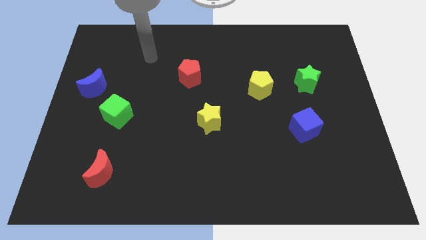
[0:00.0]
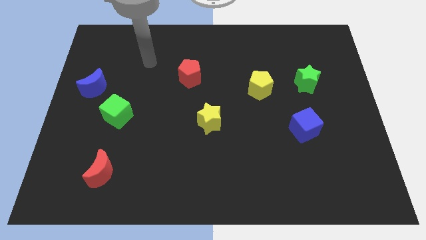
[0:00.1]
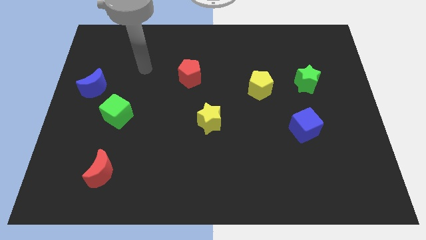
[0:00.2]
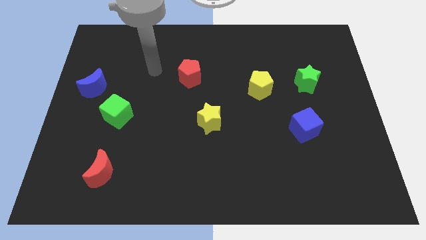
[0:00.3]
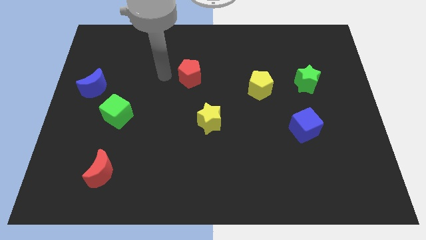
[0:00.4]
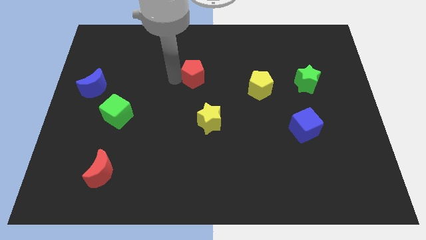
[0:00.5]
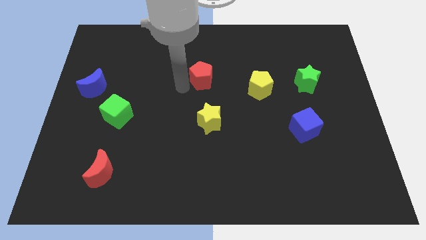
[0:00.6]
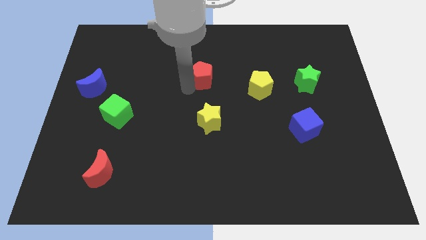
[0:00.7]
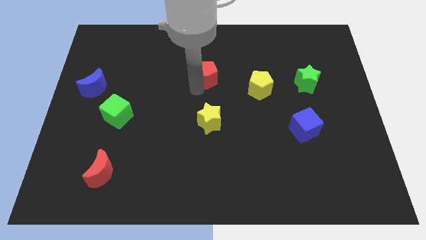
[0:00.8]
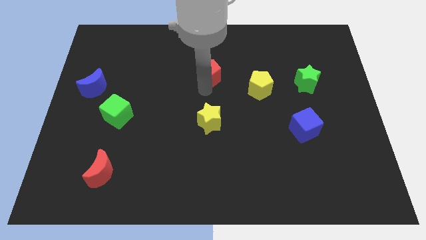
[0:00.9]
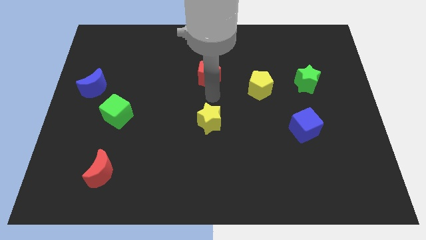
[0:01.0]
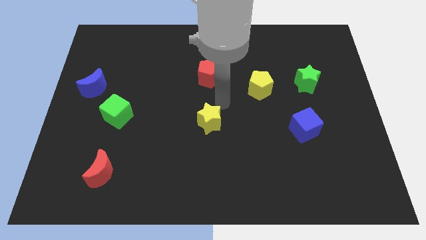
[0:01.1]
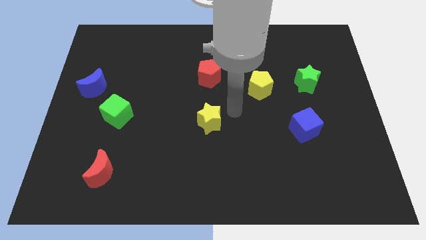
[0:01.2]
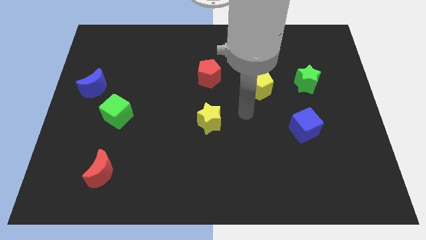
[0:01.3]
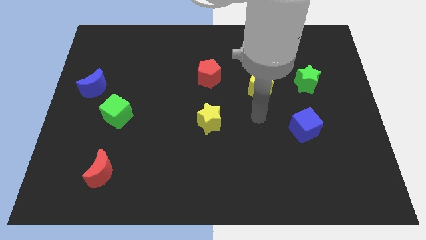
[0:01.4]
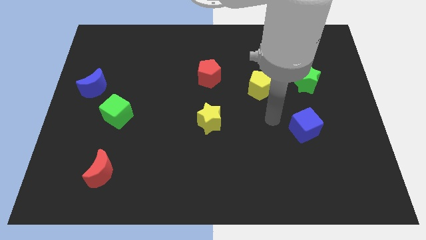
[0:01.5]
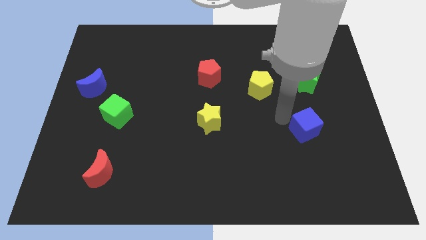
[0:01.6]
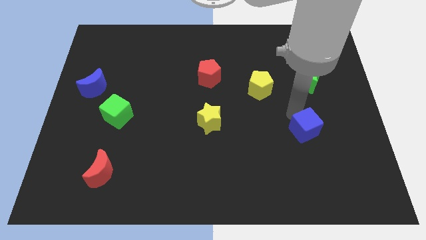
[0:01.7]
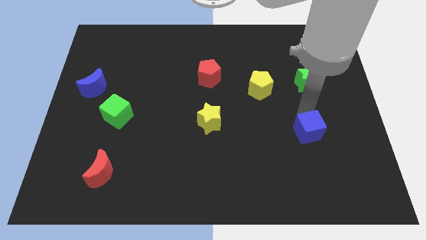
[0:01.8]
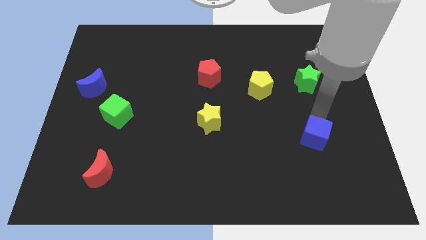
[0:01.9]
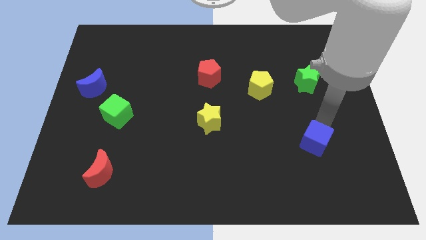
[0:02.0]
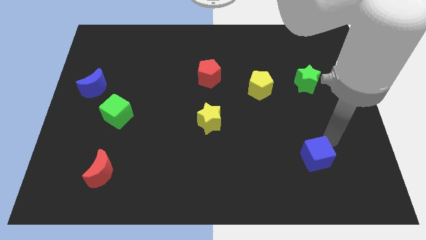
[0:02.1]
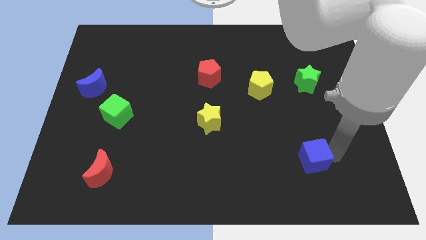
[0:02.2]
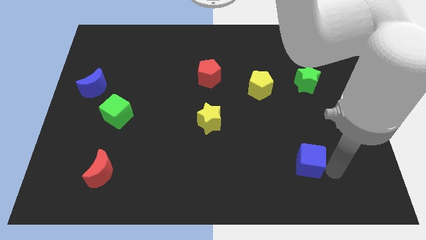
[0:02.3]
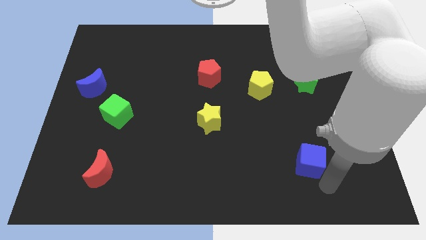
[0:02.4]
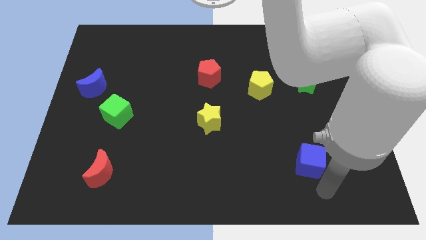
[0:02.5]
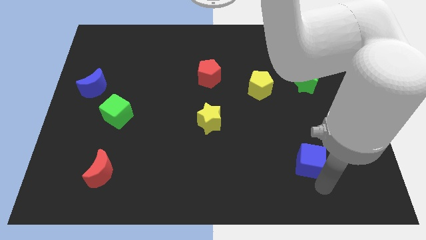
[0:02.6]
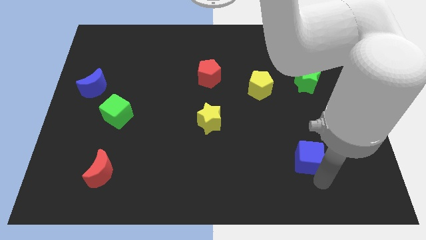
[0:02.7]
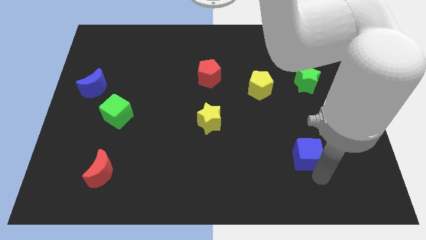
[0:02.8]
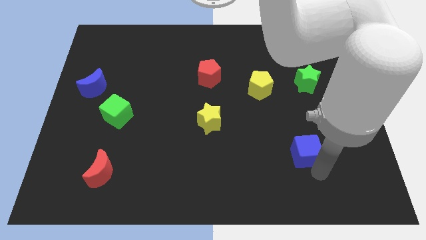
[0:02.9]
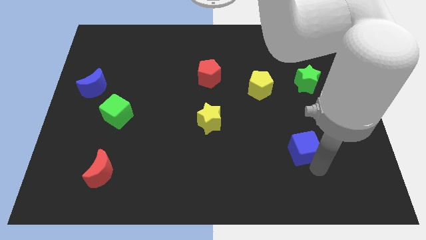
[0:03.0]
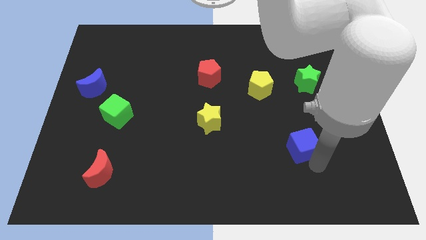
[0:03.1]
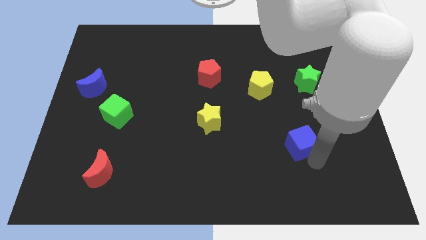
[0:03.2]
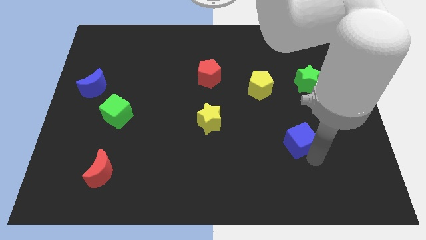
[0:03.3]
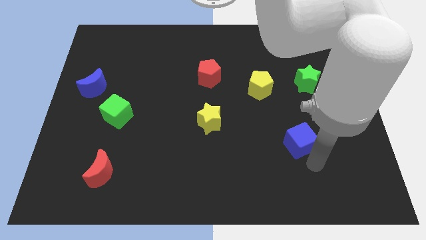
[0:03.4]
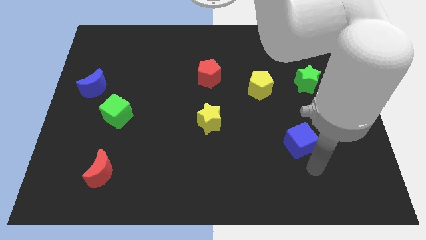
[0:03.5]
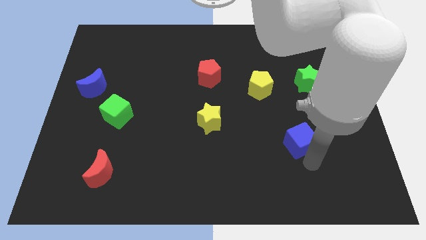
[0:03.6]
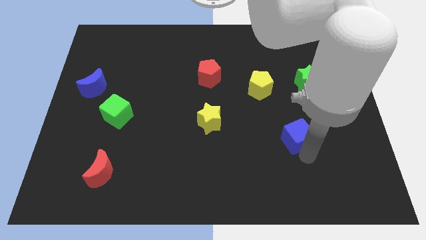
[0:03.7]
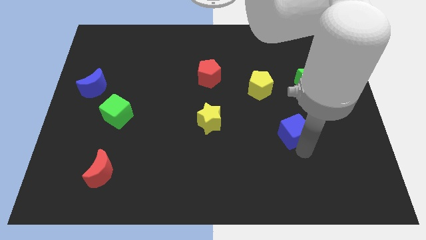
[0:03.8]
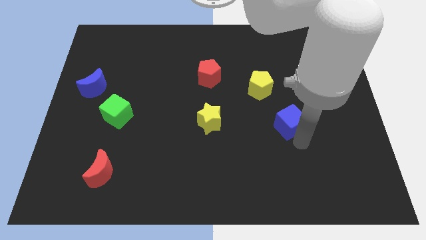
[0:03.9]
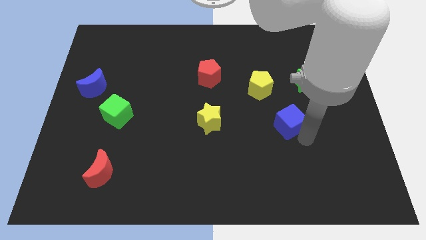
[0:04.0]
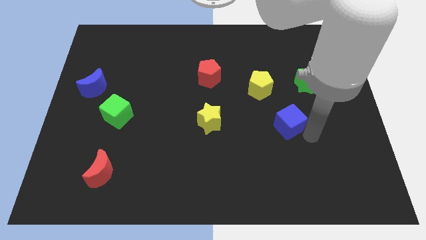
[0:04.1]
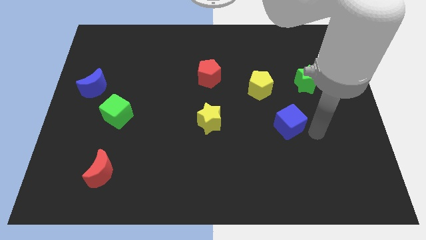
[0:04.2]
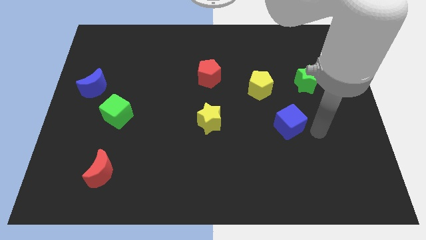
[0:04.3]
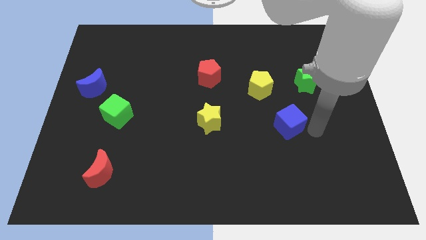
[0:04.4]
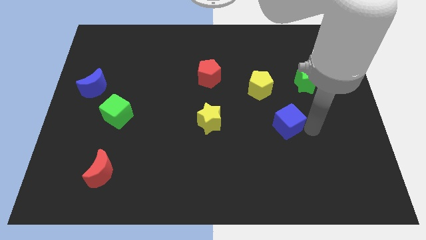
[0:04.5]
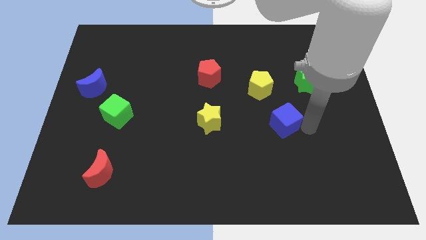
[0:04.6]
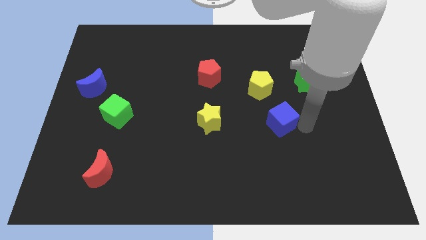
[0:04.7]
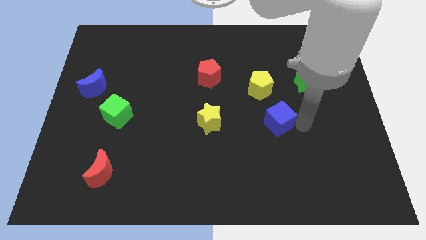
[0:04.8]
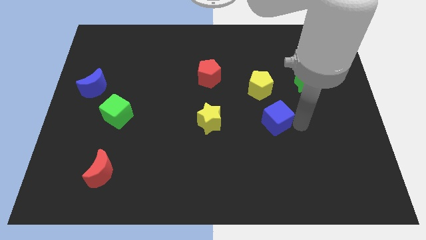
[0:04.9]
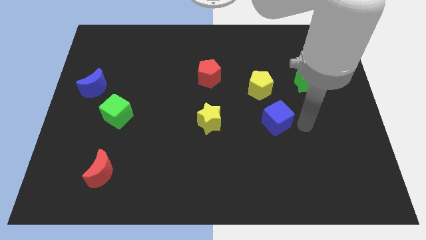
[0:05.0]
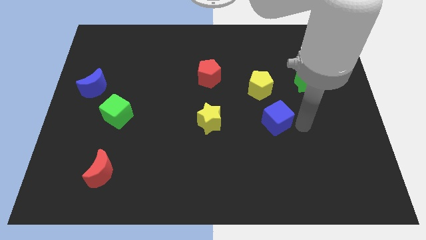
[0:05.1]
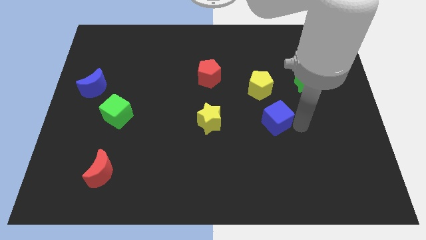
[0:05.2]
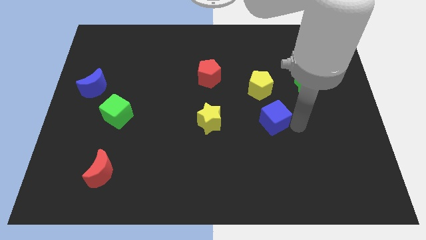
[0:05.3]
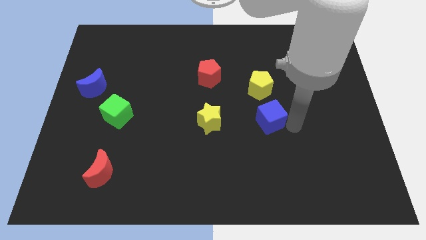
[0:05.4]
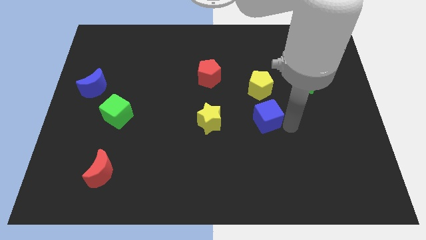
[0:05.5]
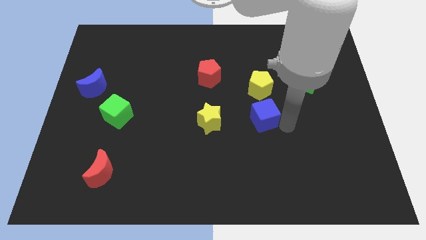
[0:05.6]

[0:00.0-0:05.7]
push the blue cube to the middle of the board

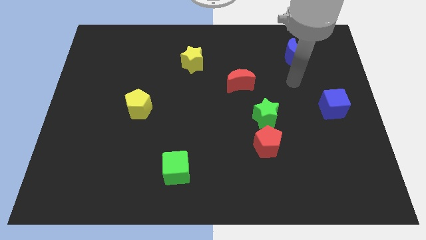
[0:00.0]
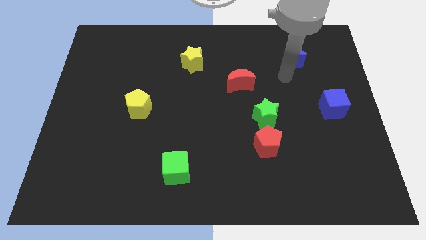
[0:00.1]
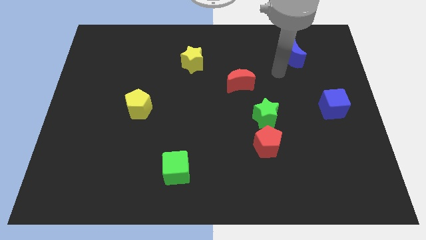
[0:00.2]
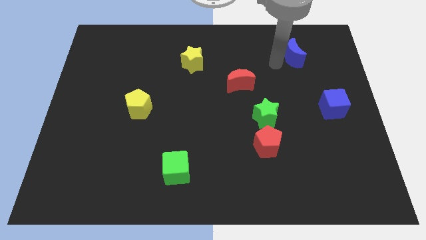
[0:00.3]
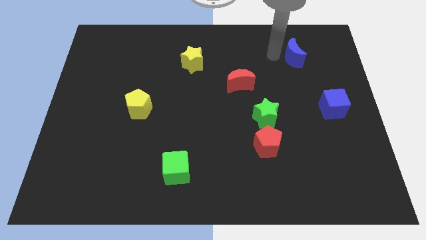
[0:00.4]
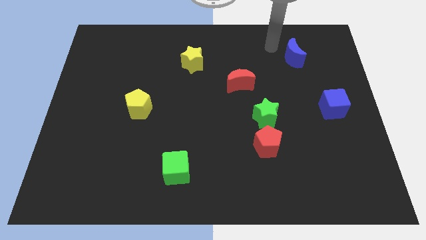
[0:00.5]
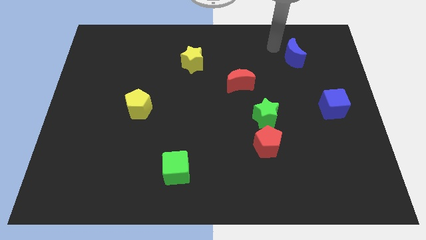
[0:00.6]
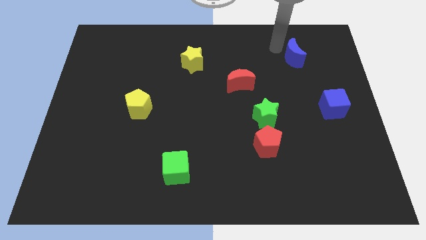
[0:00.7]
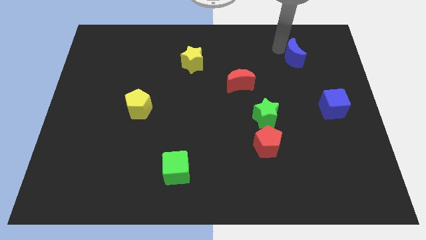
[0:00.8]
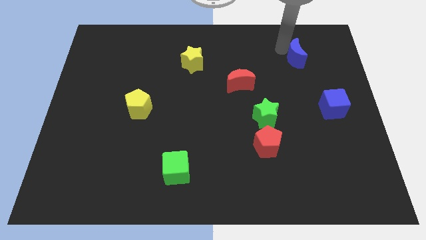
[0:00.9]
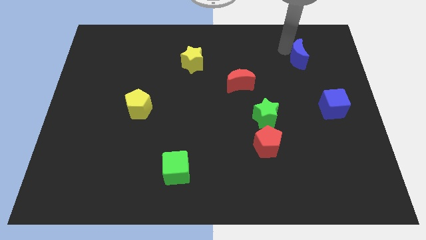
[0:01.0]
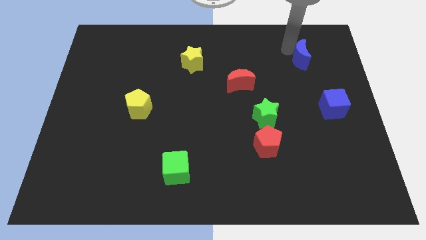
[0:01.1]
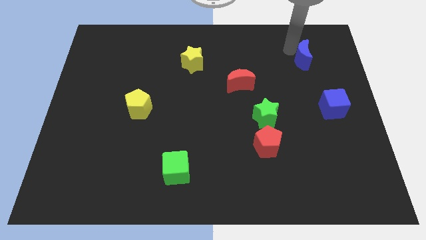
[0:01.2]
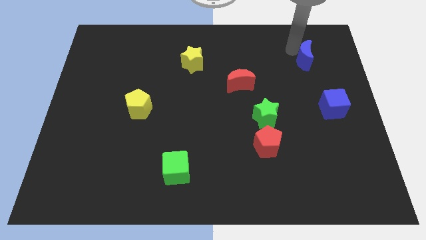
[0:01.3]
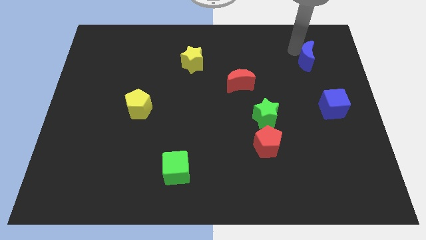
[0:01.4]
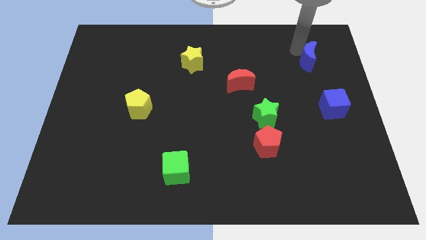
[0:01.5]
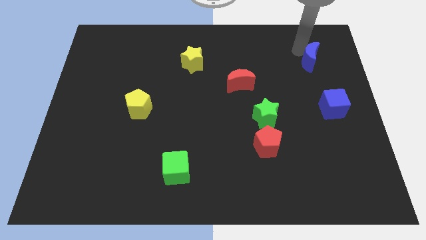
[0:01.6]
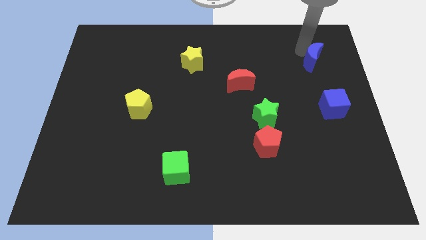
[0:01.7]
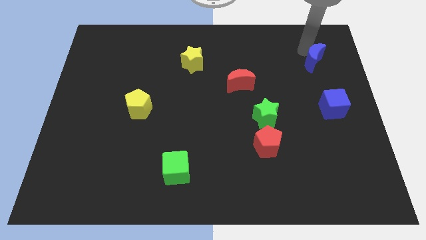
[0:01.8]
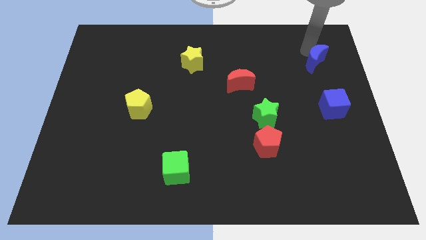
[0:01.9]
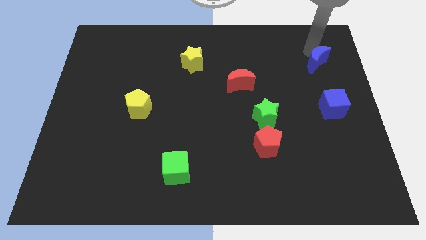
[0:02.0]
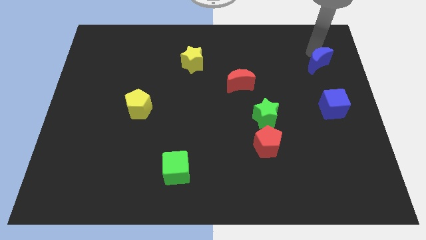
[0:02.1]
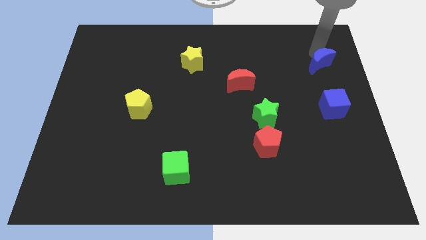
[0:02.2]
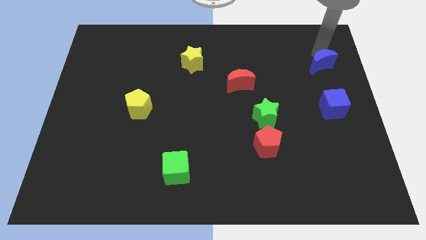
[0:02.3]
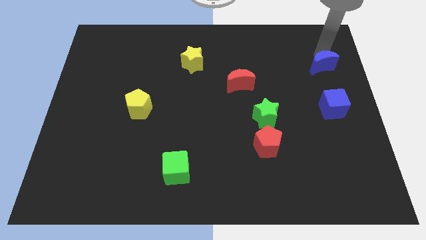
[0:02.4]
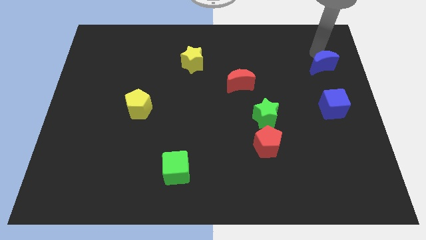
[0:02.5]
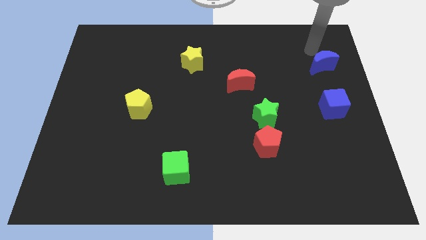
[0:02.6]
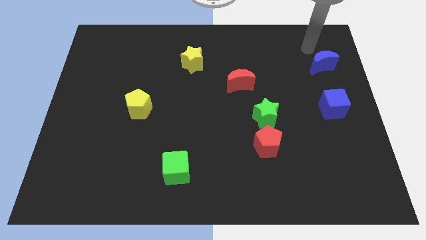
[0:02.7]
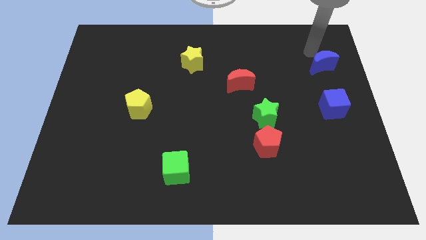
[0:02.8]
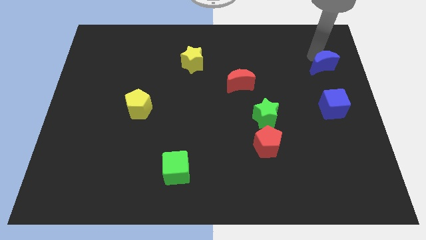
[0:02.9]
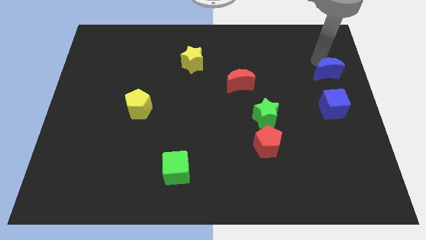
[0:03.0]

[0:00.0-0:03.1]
slide the blue moon to the right side
